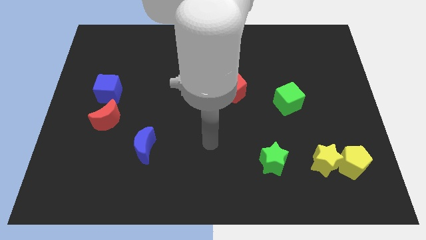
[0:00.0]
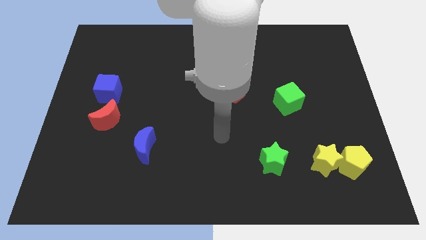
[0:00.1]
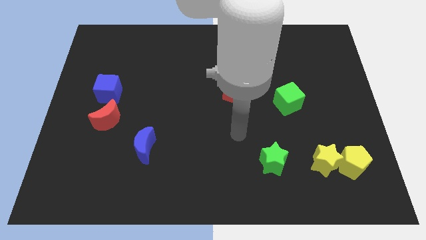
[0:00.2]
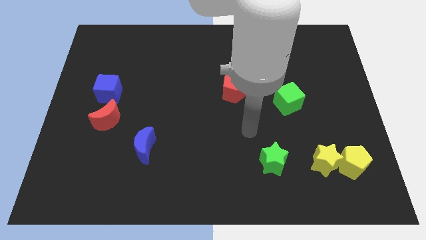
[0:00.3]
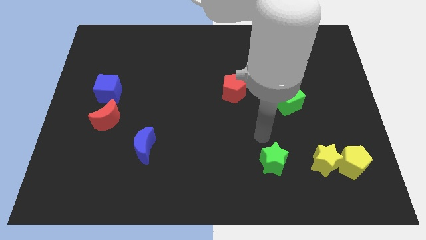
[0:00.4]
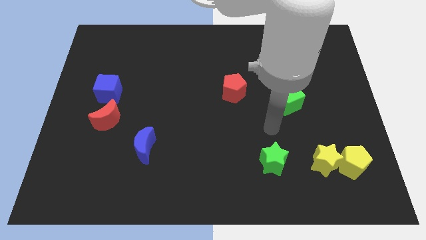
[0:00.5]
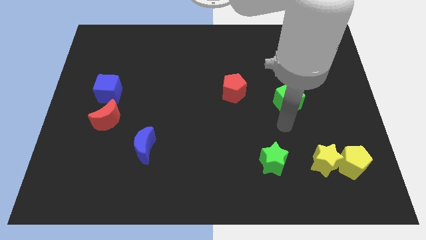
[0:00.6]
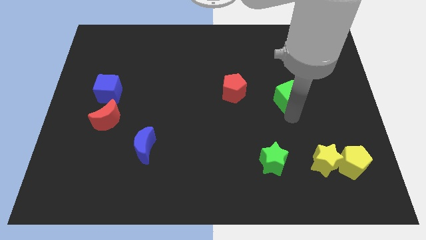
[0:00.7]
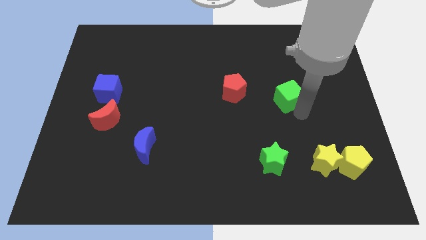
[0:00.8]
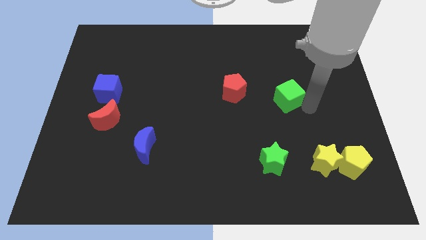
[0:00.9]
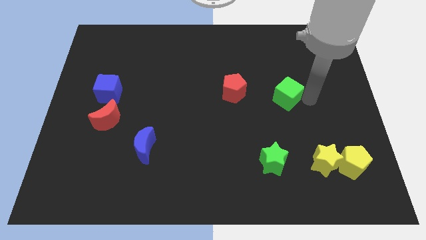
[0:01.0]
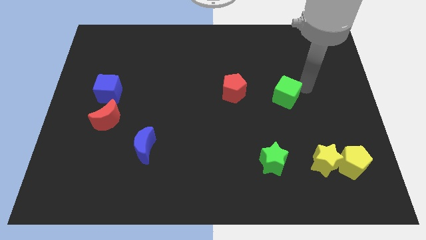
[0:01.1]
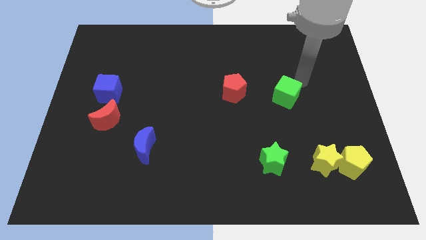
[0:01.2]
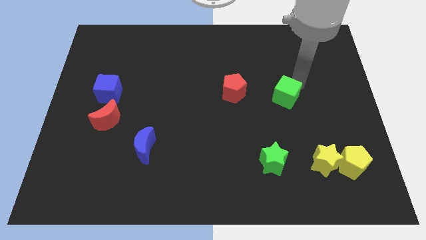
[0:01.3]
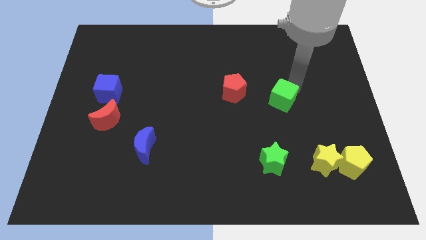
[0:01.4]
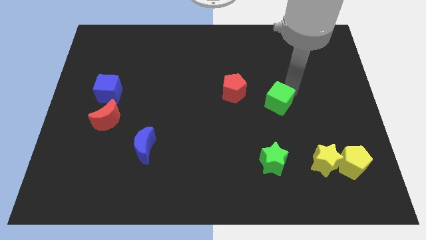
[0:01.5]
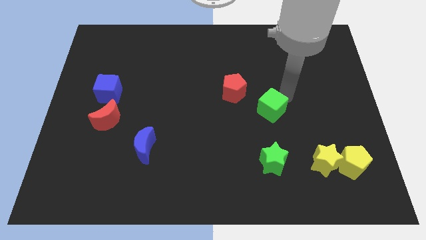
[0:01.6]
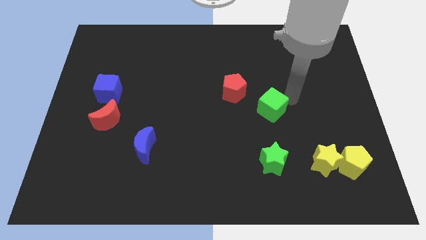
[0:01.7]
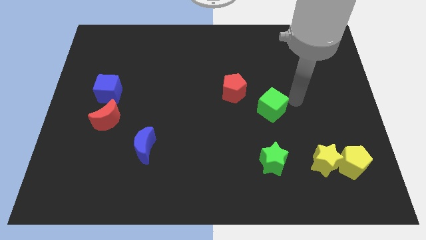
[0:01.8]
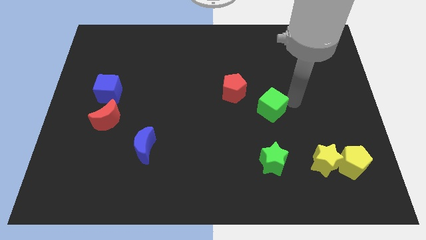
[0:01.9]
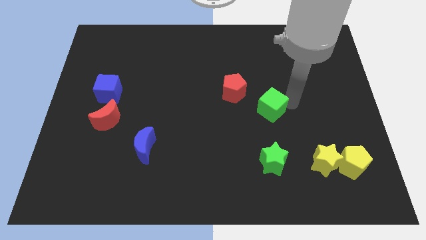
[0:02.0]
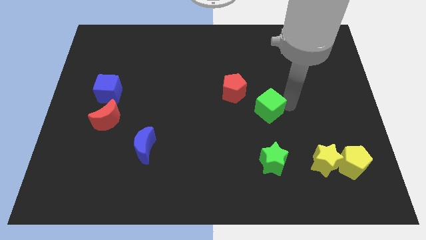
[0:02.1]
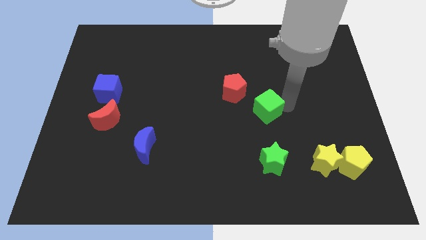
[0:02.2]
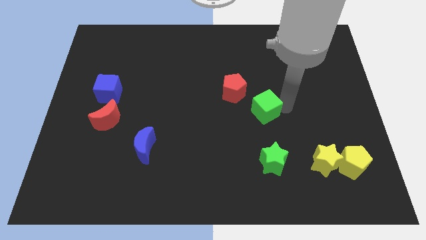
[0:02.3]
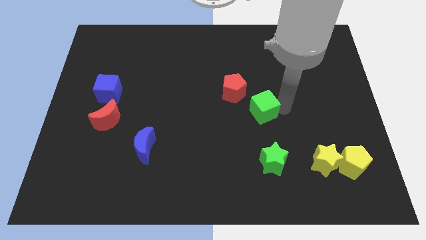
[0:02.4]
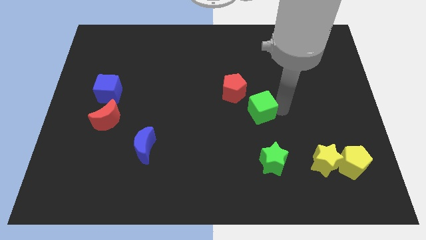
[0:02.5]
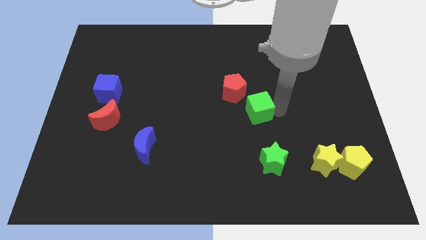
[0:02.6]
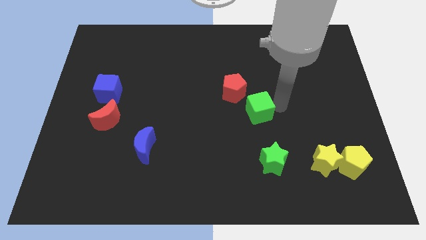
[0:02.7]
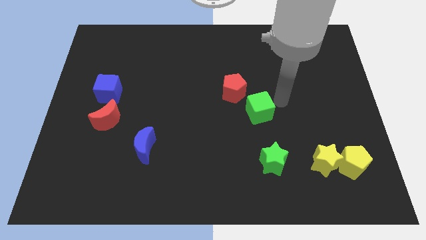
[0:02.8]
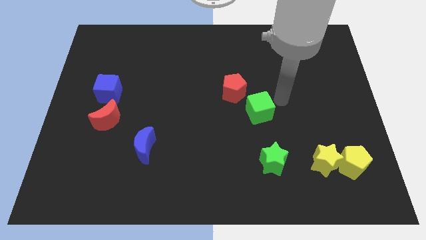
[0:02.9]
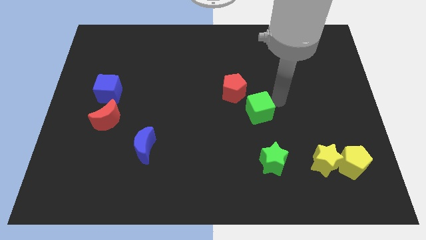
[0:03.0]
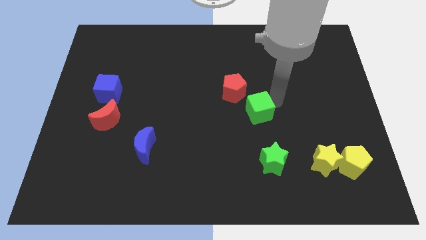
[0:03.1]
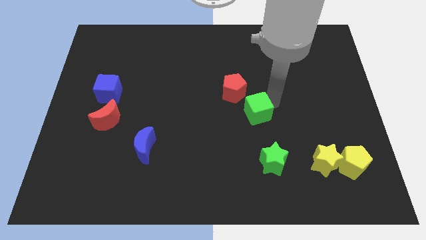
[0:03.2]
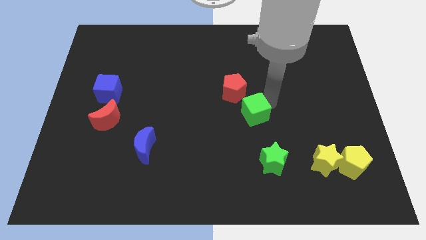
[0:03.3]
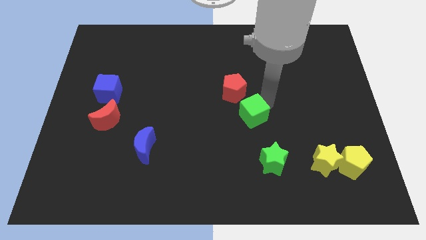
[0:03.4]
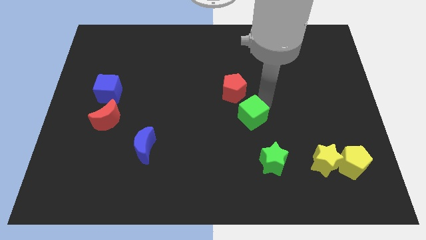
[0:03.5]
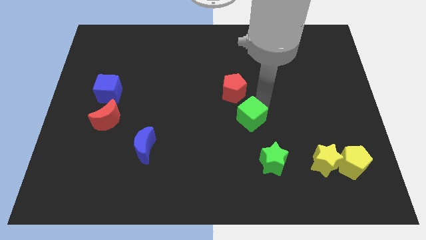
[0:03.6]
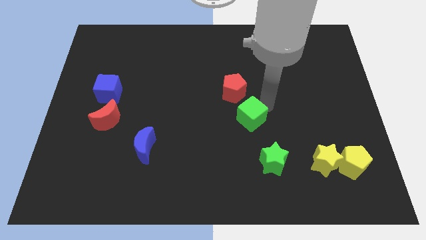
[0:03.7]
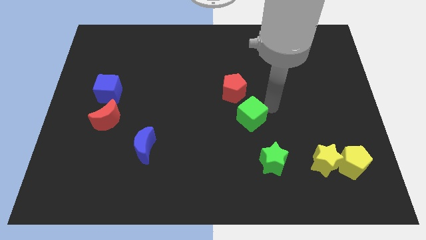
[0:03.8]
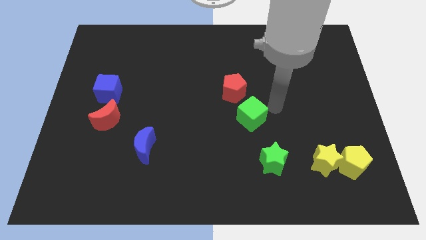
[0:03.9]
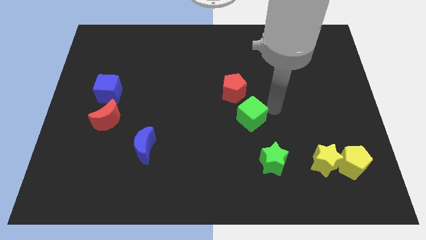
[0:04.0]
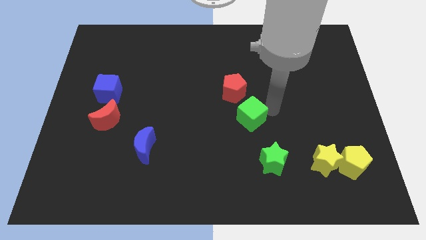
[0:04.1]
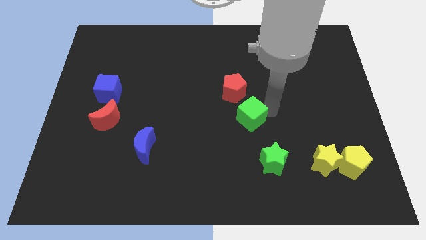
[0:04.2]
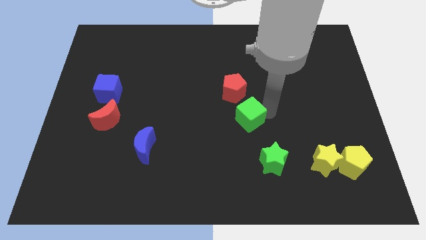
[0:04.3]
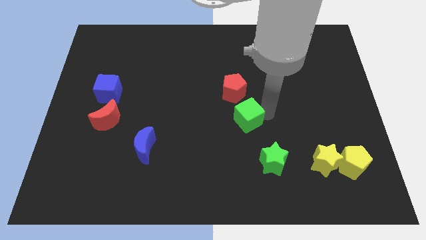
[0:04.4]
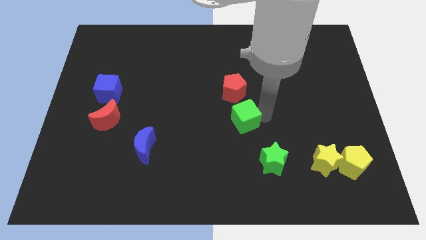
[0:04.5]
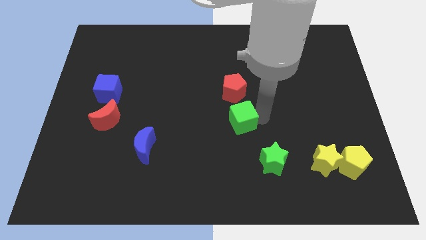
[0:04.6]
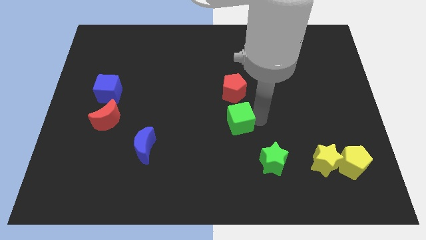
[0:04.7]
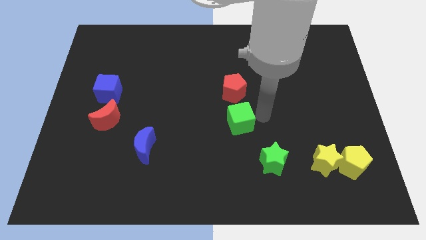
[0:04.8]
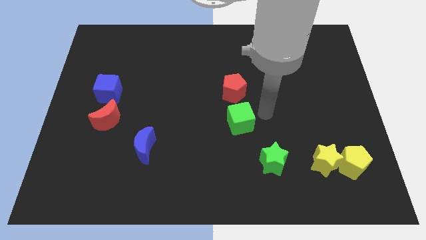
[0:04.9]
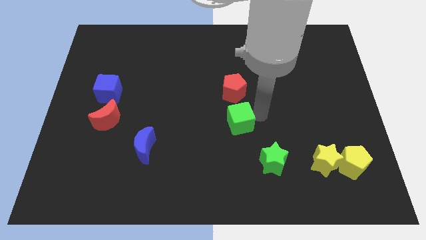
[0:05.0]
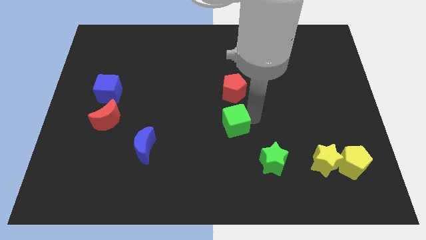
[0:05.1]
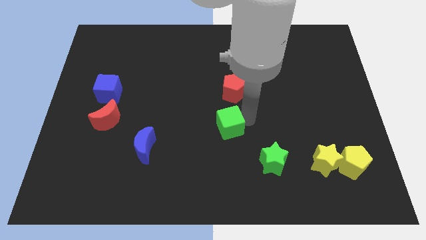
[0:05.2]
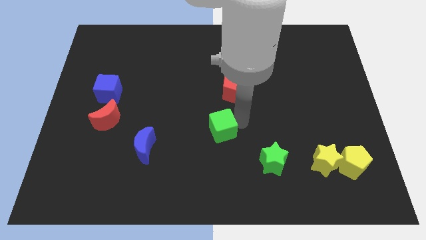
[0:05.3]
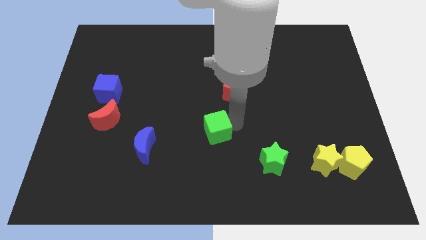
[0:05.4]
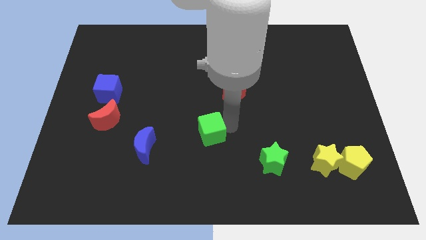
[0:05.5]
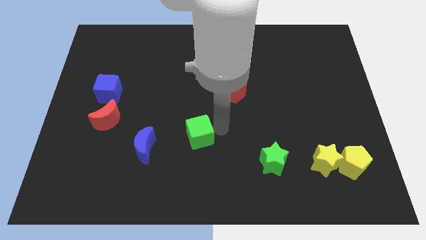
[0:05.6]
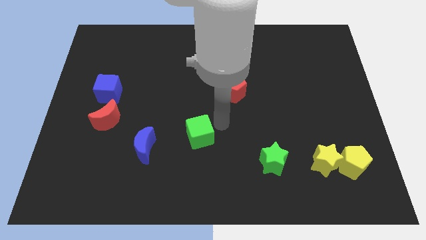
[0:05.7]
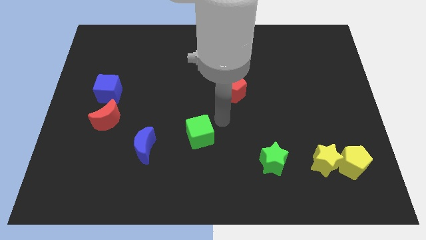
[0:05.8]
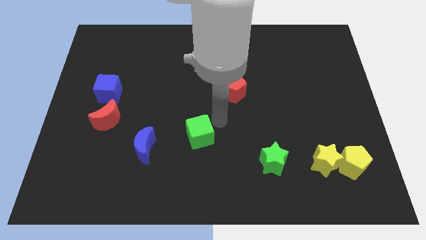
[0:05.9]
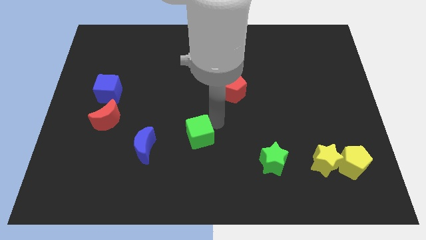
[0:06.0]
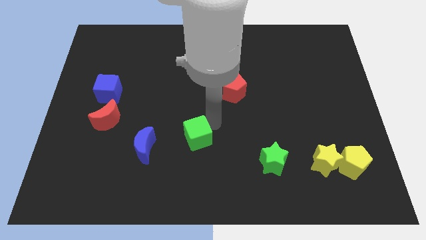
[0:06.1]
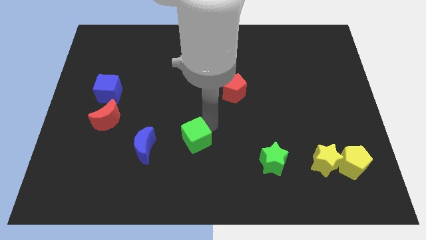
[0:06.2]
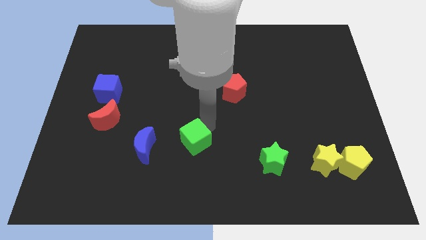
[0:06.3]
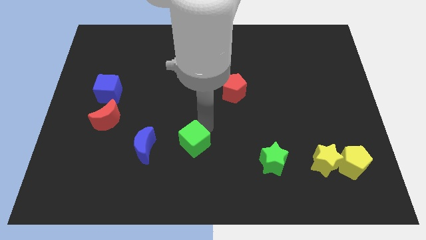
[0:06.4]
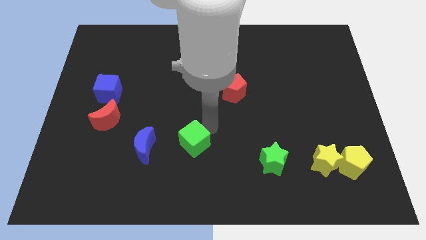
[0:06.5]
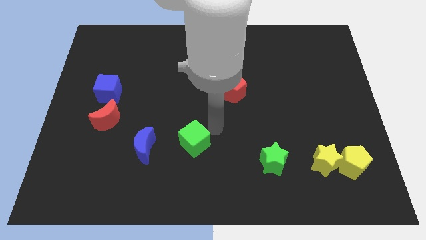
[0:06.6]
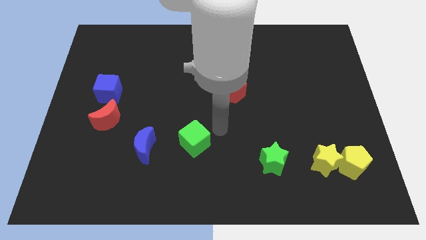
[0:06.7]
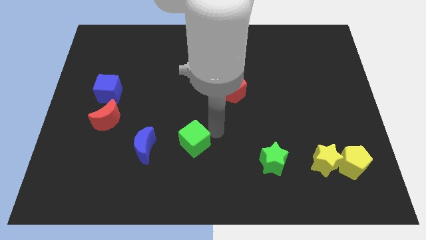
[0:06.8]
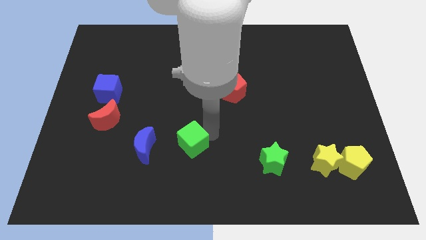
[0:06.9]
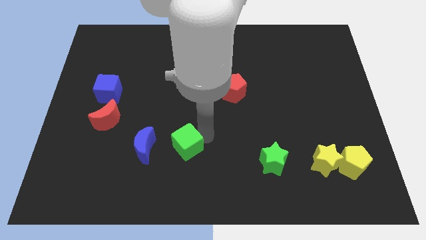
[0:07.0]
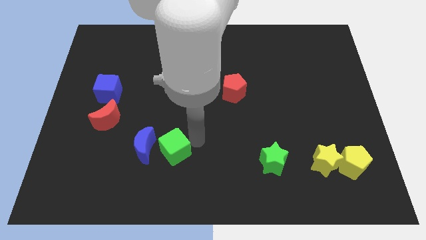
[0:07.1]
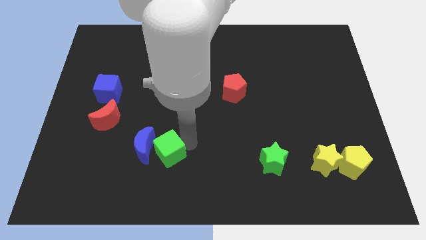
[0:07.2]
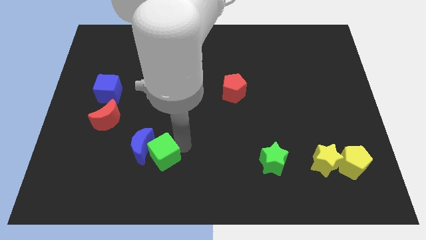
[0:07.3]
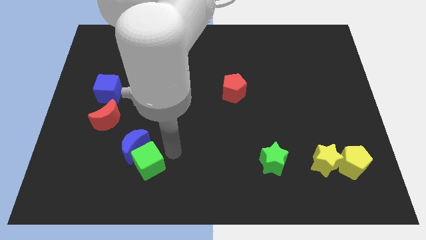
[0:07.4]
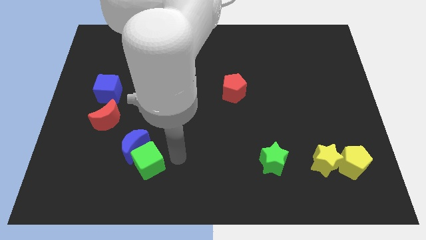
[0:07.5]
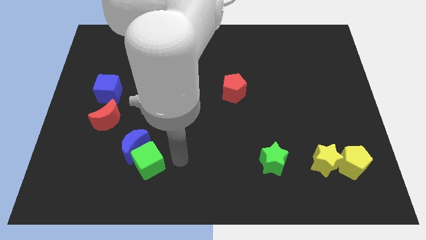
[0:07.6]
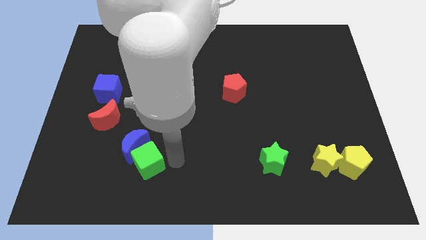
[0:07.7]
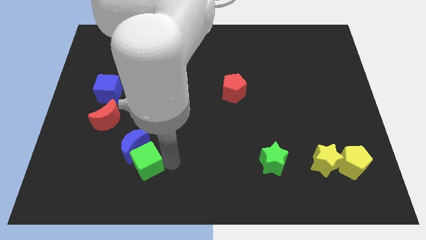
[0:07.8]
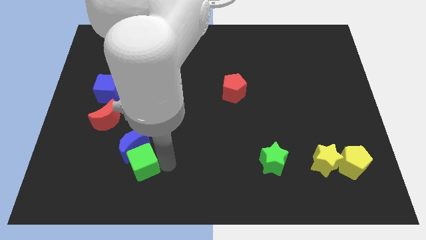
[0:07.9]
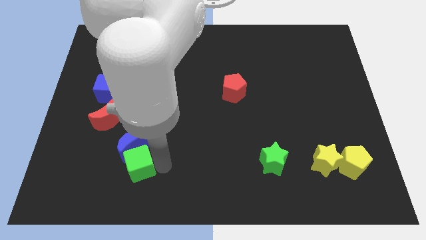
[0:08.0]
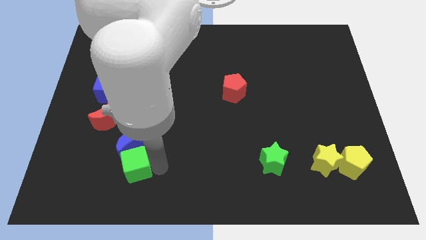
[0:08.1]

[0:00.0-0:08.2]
slide the green cube diagonally down and to the left of the blue moon
